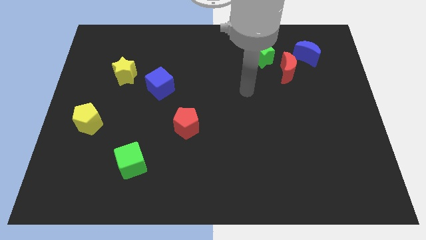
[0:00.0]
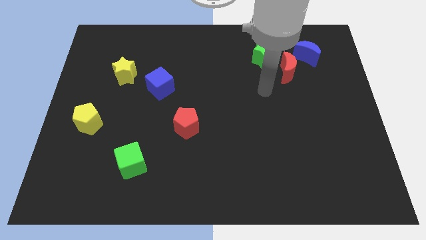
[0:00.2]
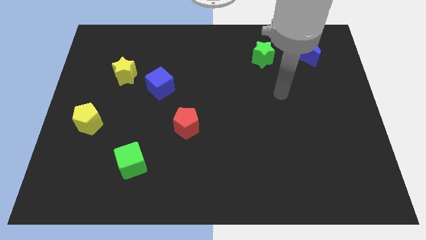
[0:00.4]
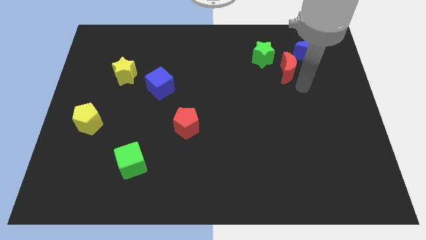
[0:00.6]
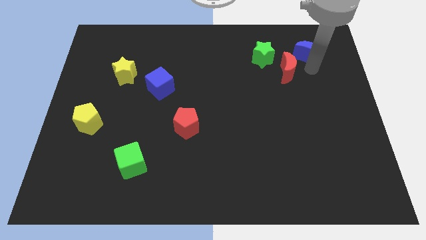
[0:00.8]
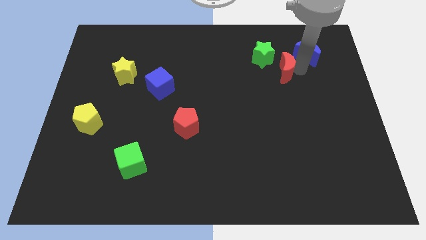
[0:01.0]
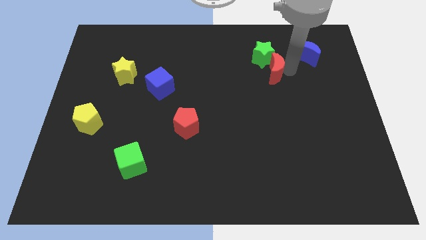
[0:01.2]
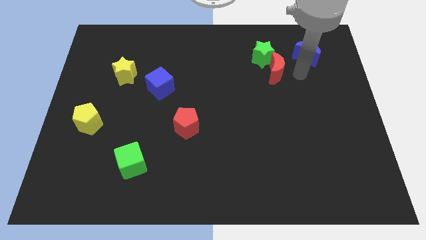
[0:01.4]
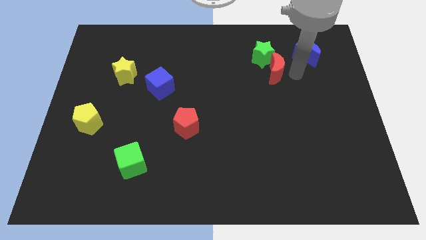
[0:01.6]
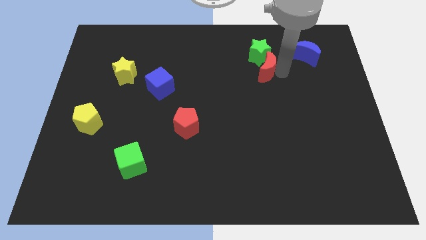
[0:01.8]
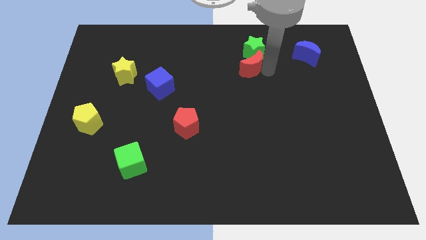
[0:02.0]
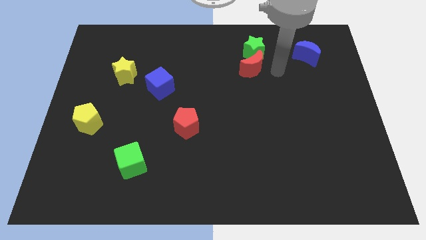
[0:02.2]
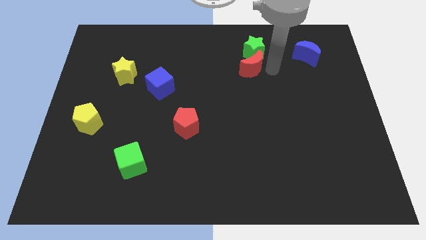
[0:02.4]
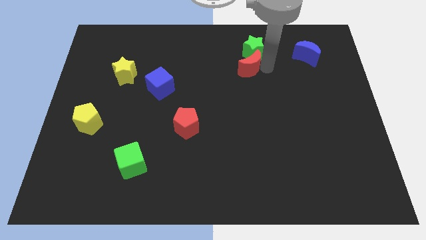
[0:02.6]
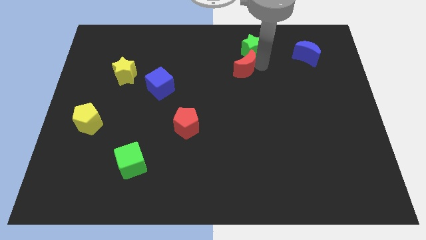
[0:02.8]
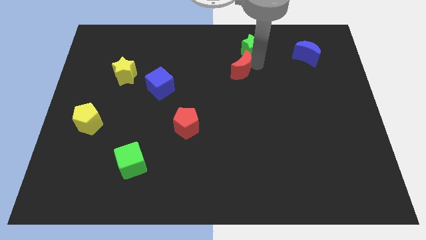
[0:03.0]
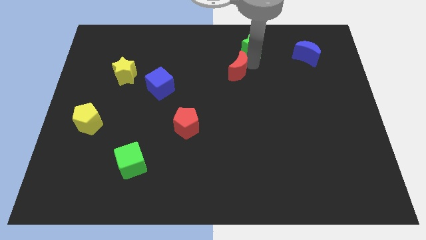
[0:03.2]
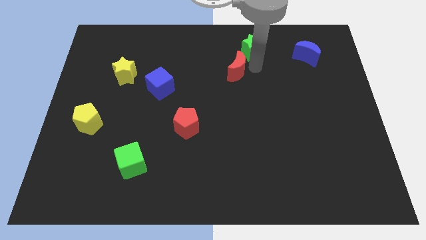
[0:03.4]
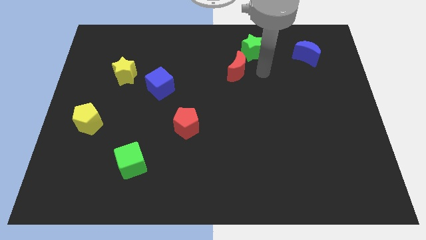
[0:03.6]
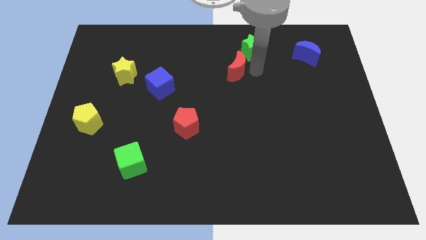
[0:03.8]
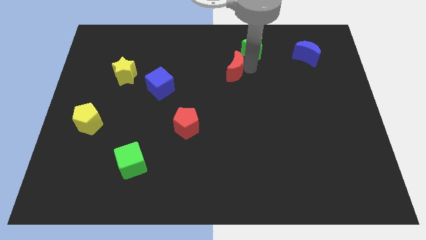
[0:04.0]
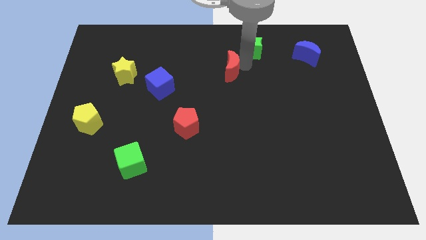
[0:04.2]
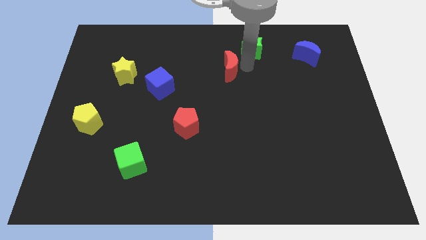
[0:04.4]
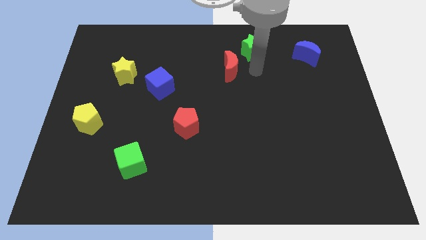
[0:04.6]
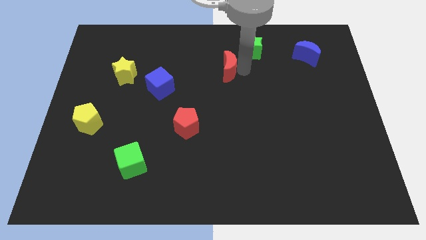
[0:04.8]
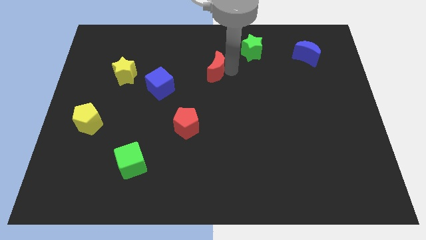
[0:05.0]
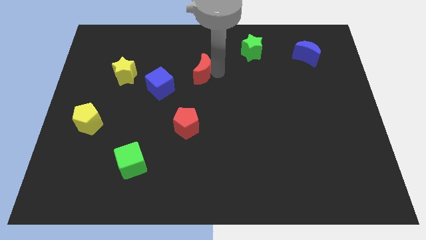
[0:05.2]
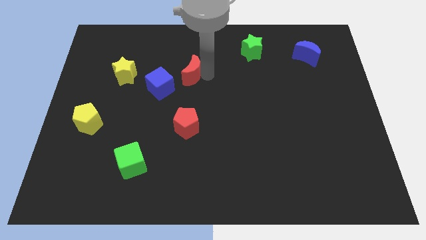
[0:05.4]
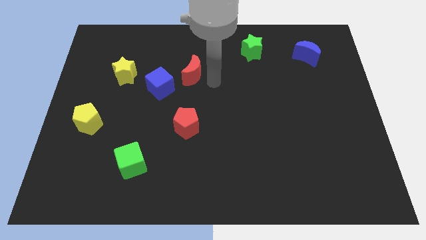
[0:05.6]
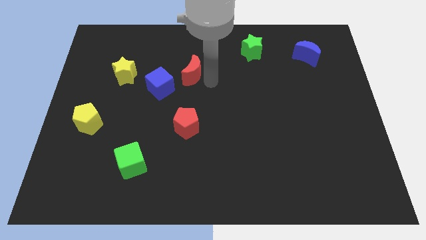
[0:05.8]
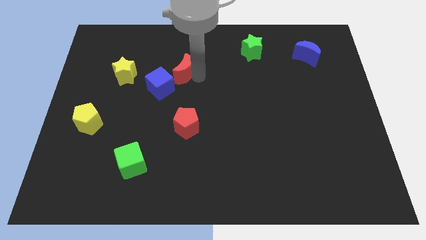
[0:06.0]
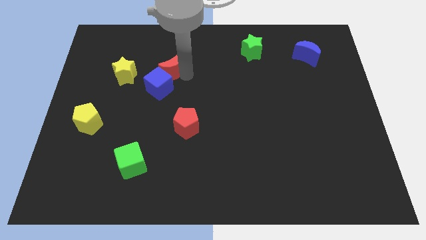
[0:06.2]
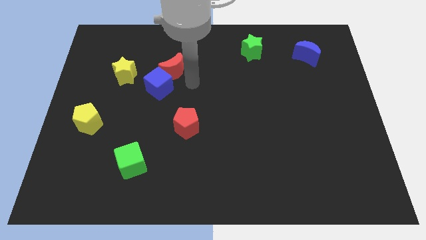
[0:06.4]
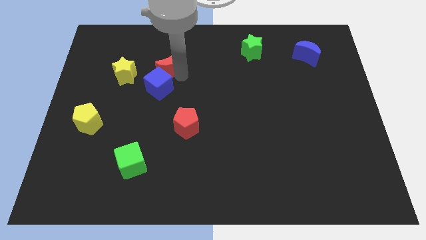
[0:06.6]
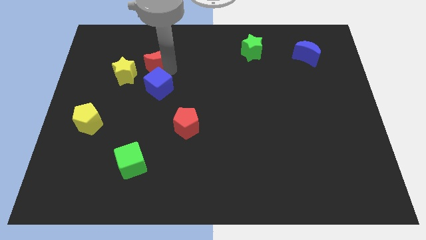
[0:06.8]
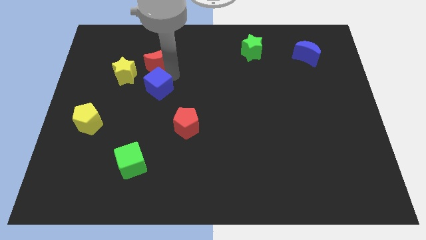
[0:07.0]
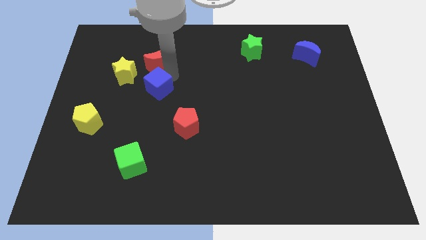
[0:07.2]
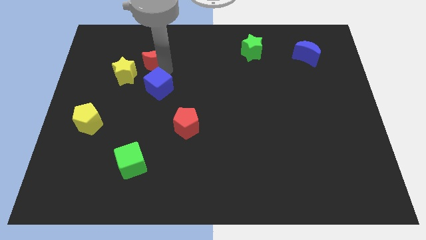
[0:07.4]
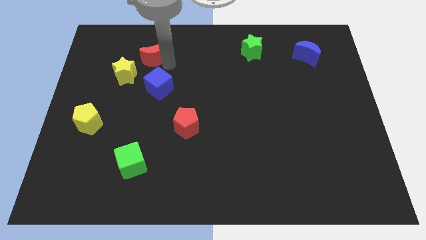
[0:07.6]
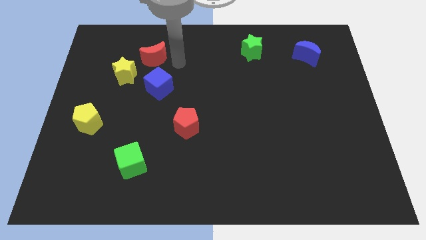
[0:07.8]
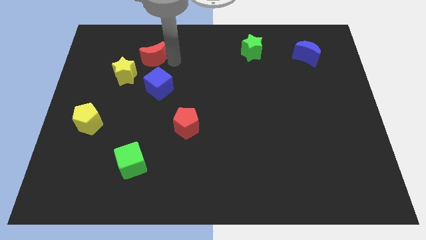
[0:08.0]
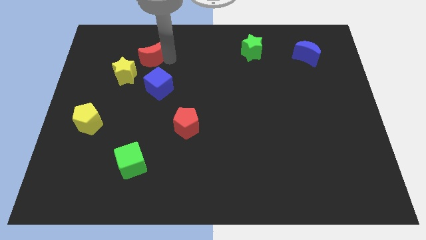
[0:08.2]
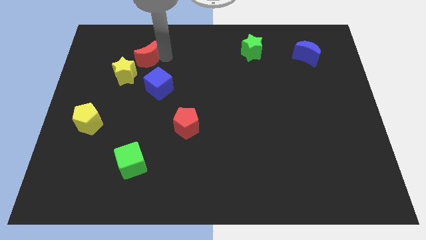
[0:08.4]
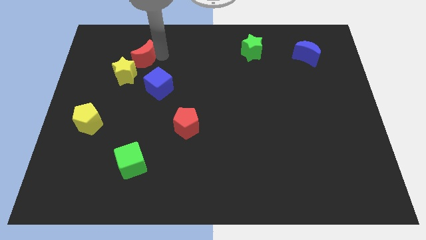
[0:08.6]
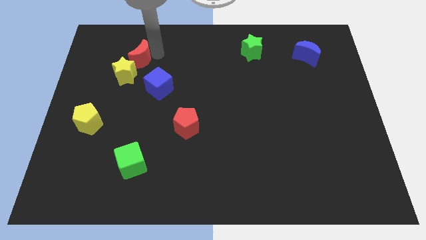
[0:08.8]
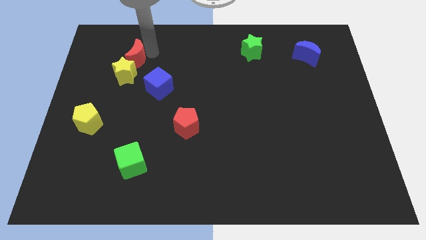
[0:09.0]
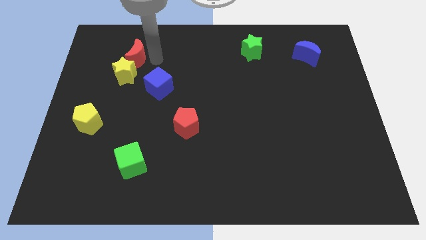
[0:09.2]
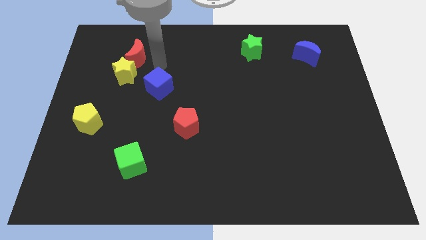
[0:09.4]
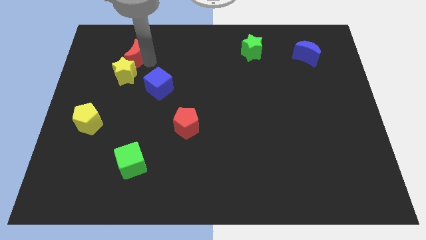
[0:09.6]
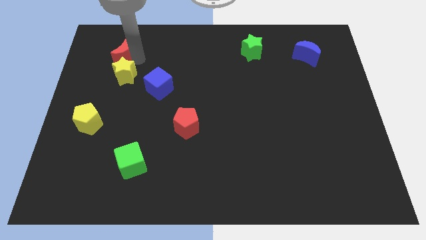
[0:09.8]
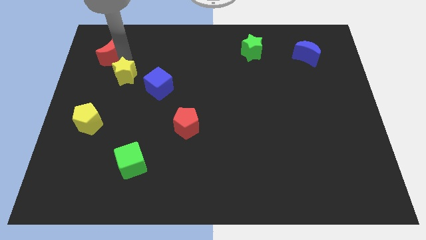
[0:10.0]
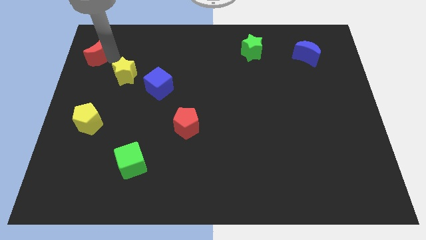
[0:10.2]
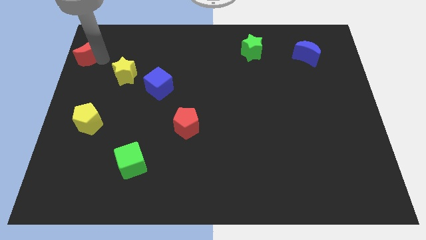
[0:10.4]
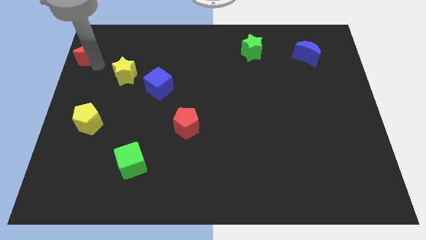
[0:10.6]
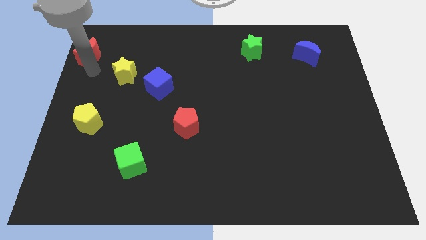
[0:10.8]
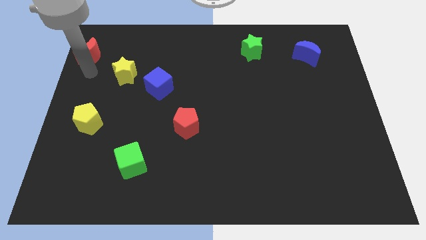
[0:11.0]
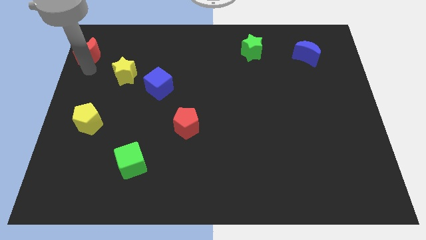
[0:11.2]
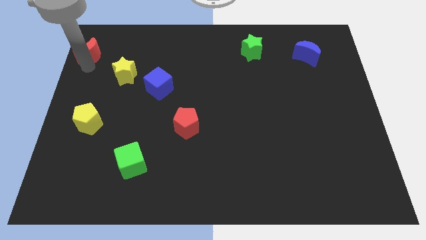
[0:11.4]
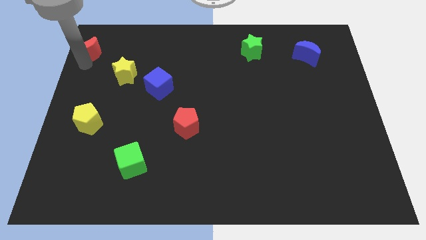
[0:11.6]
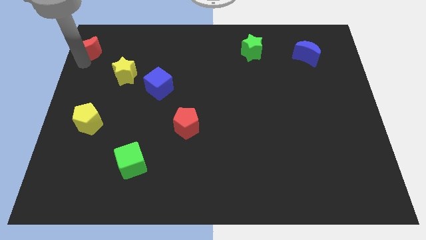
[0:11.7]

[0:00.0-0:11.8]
move the red moon to the top left of the board
